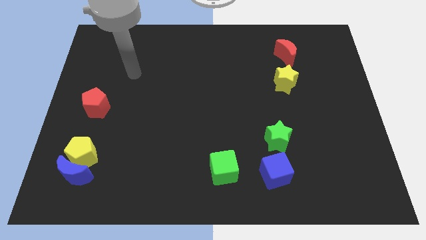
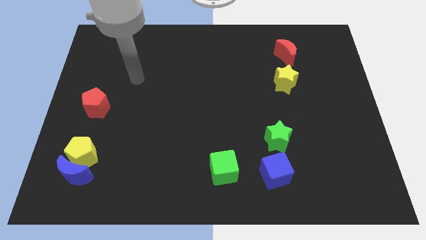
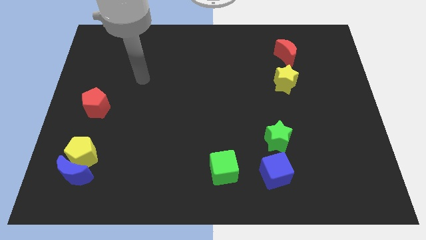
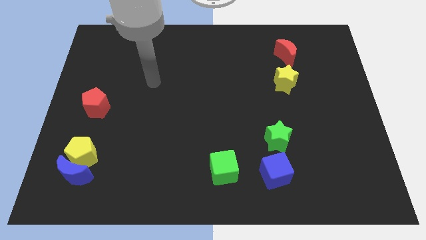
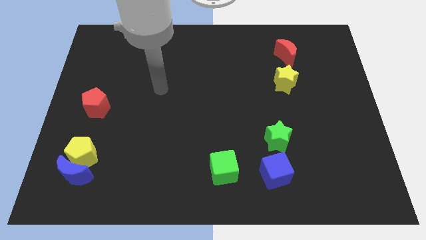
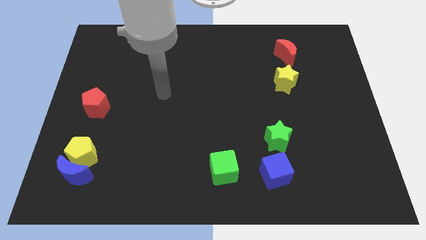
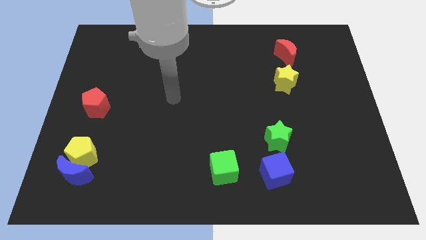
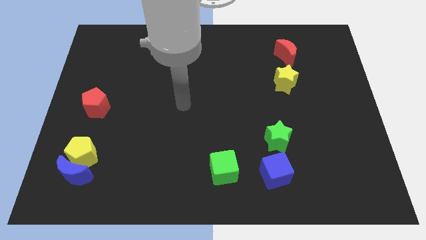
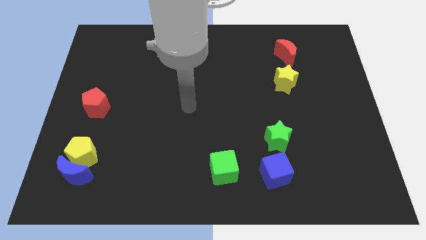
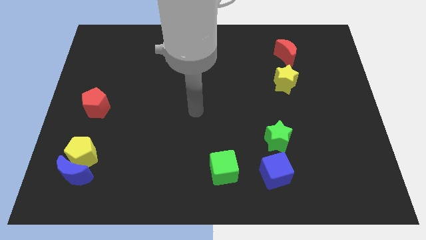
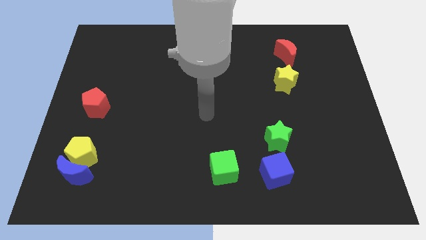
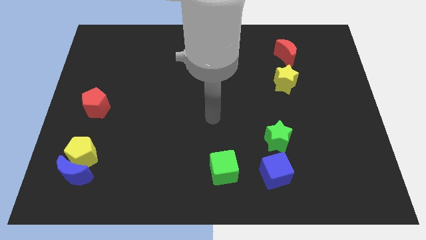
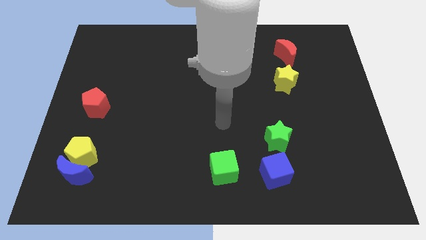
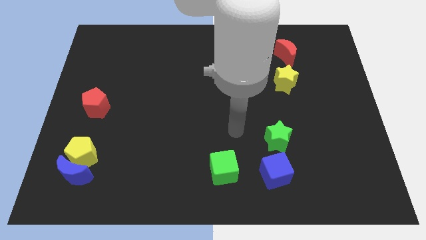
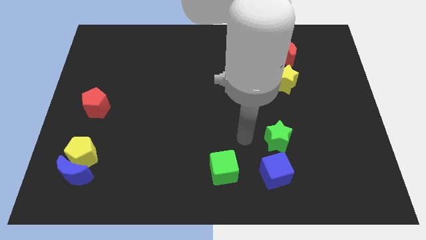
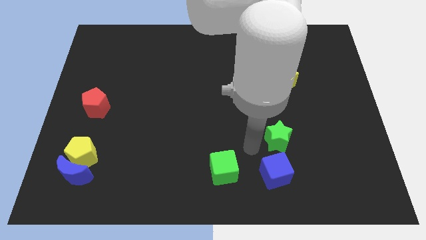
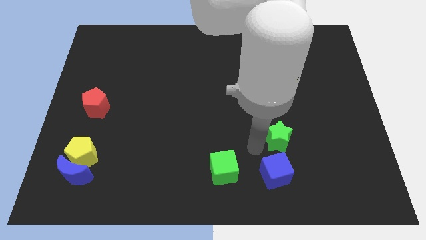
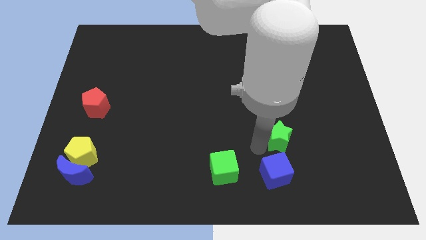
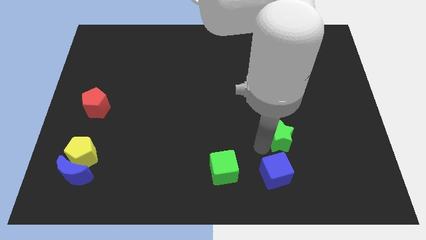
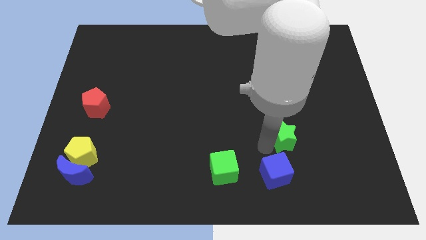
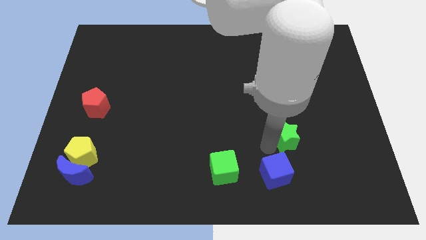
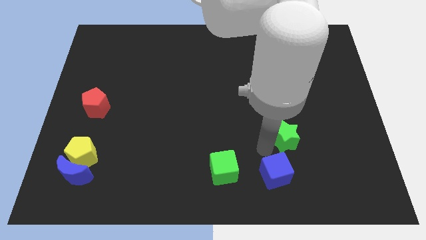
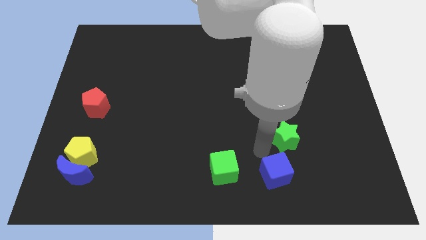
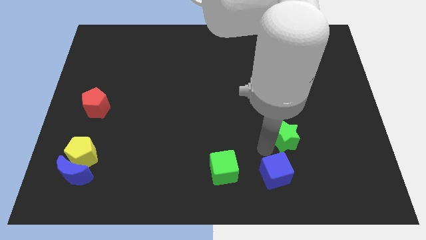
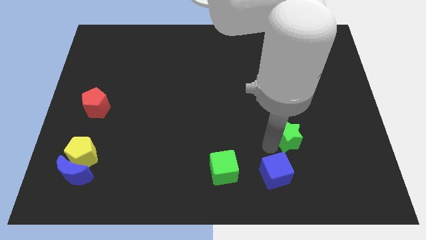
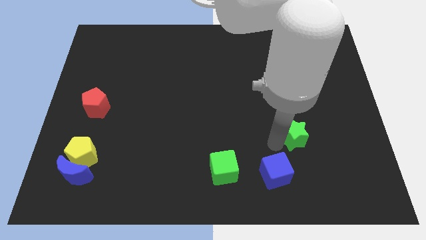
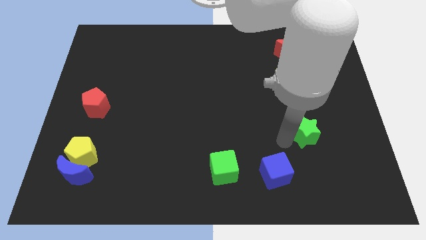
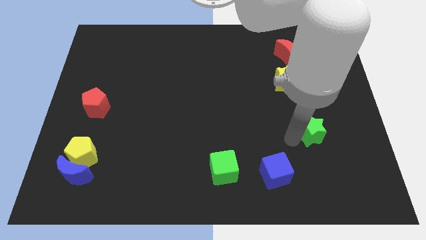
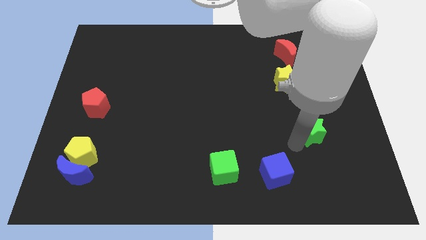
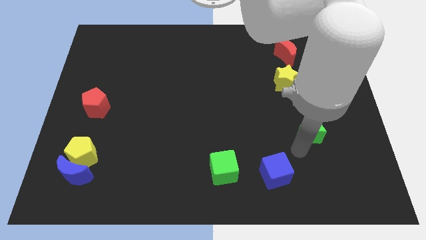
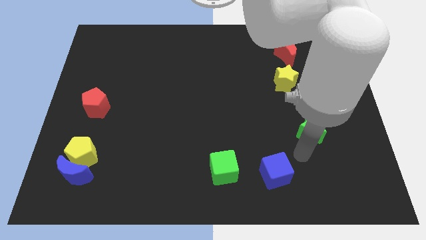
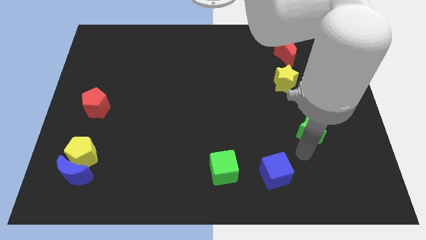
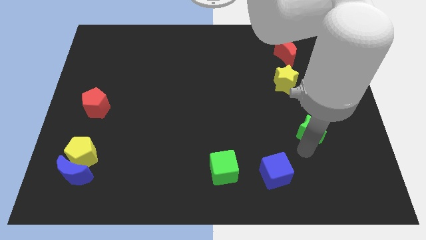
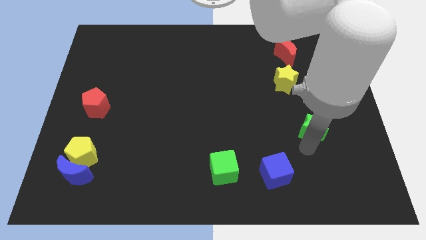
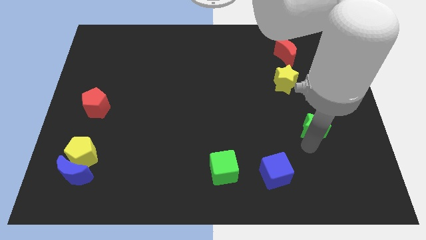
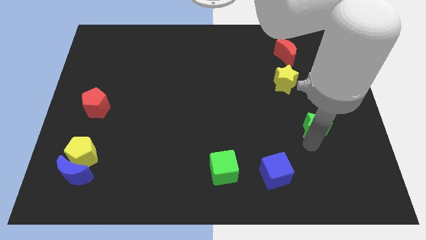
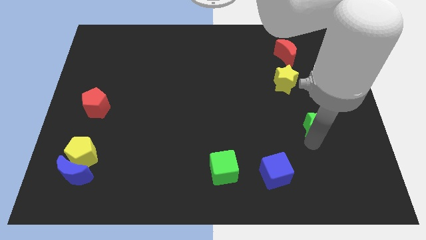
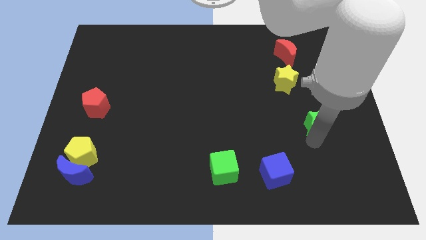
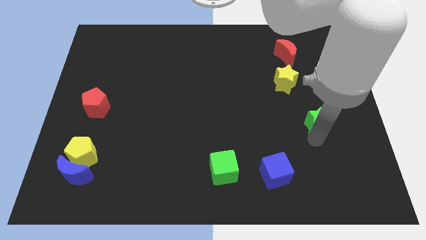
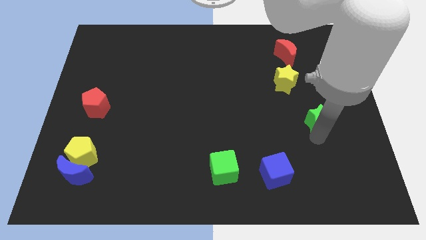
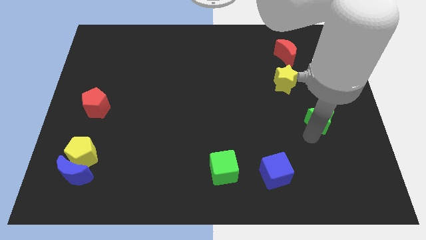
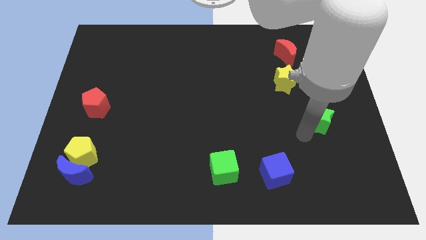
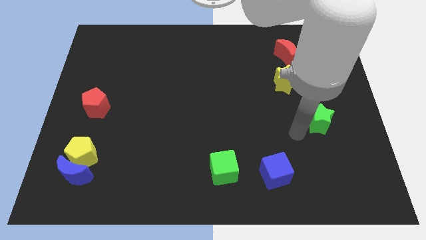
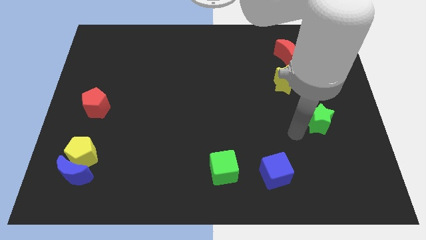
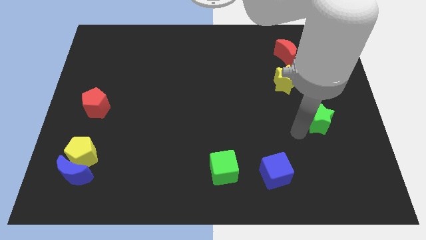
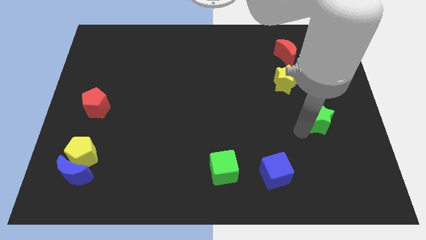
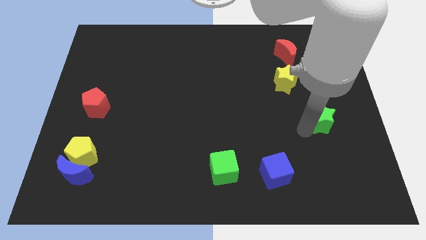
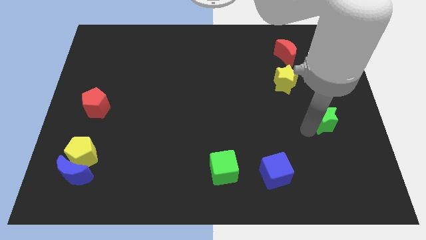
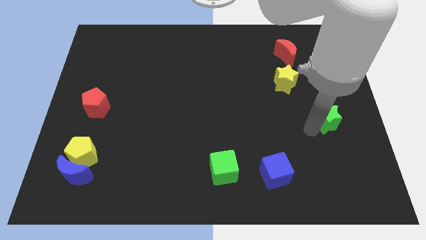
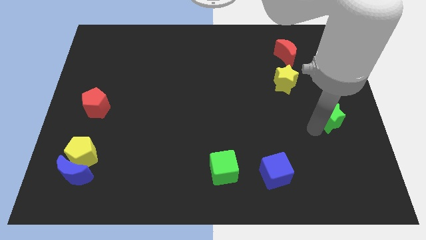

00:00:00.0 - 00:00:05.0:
move the green star to the right side of the board

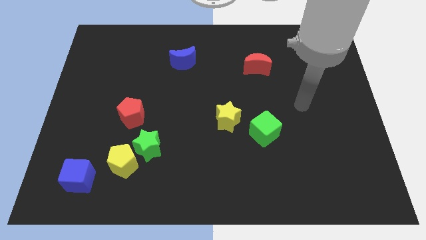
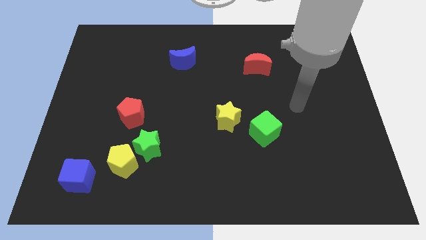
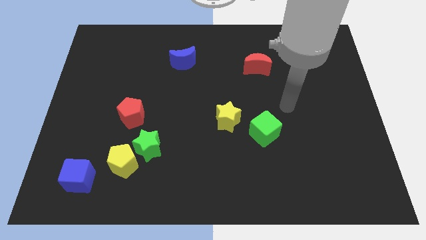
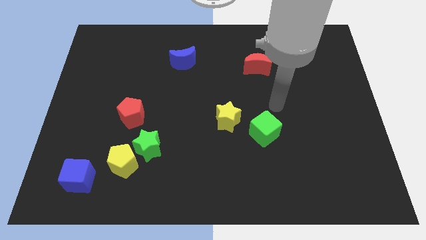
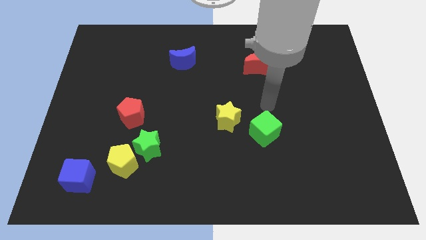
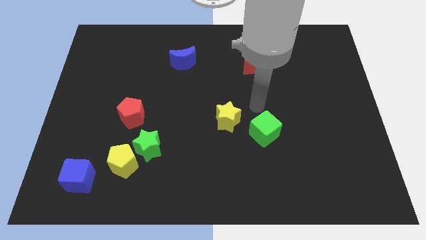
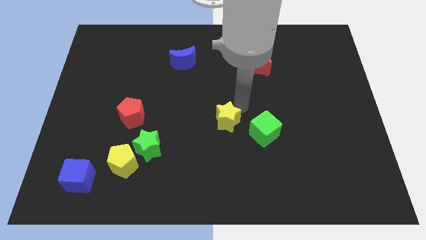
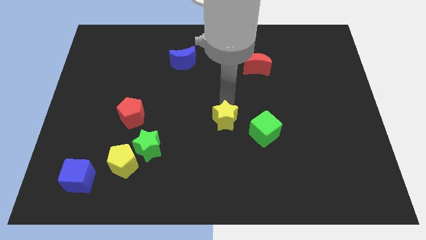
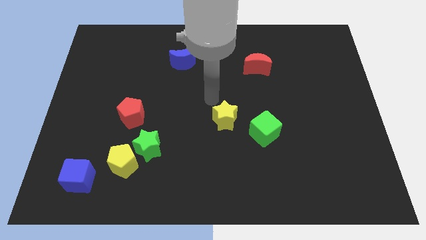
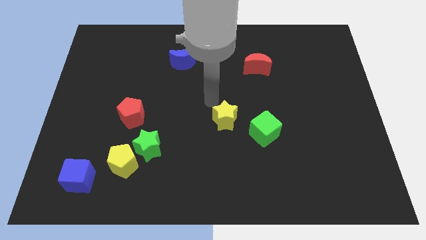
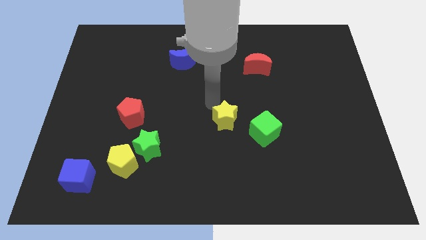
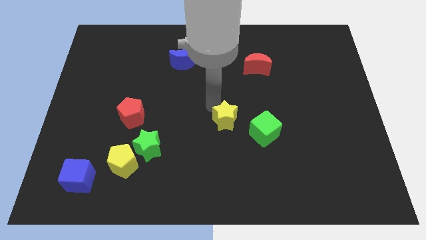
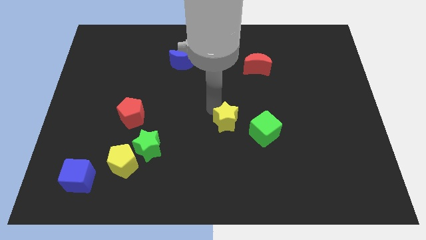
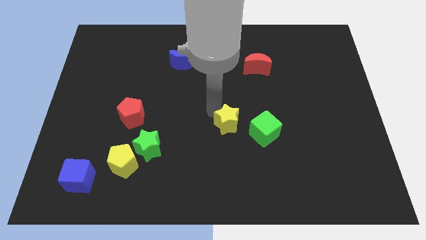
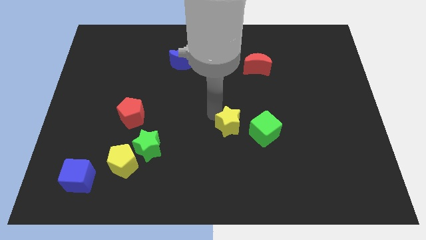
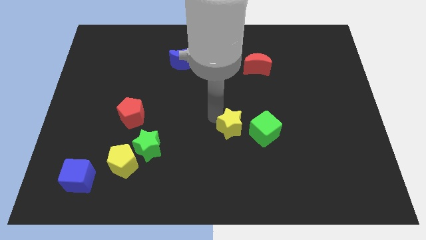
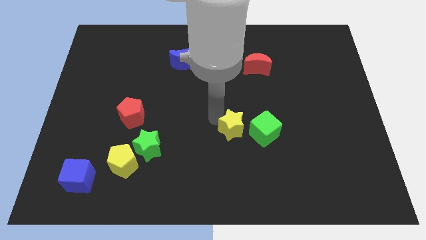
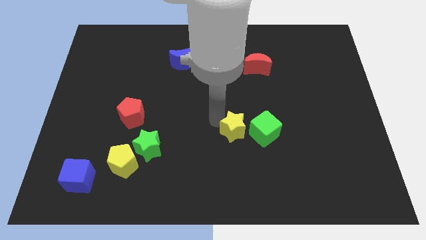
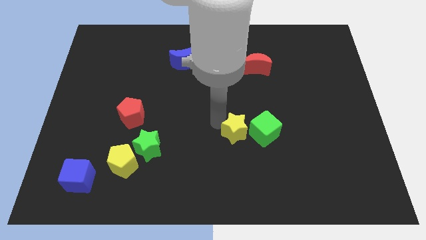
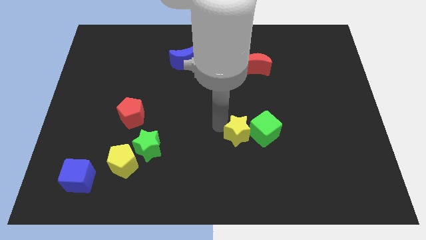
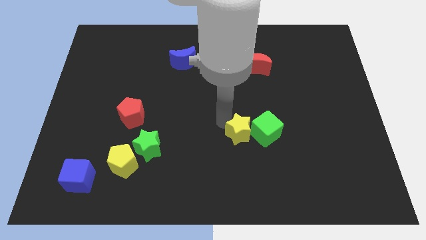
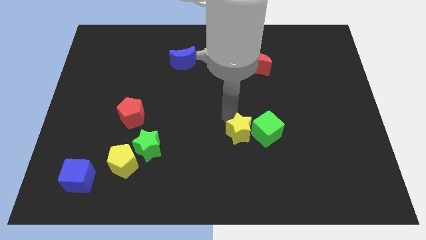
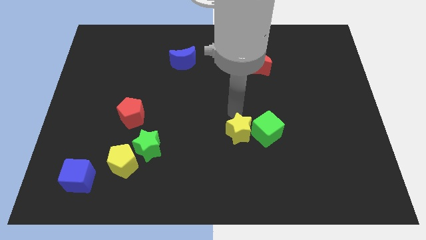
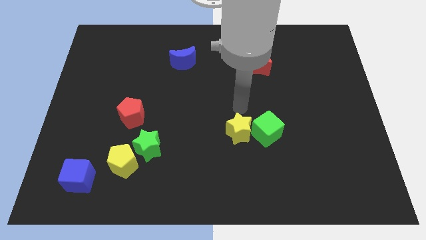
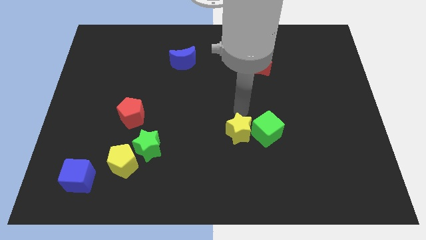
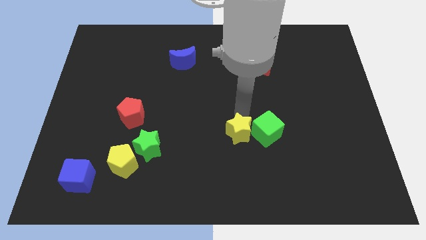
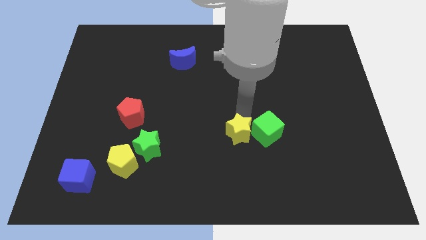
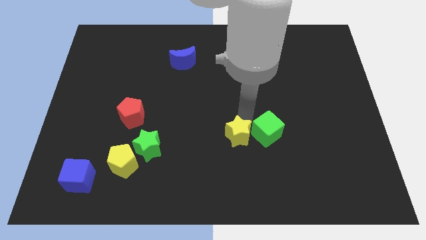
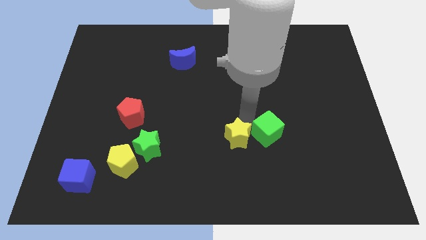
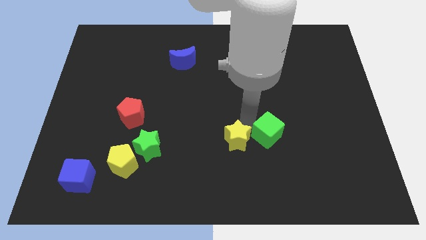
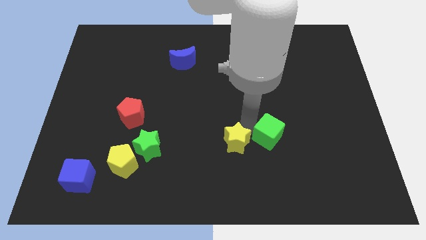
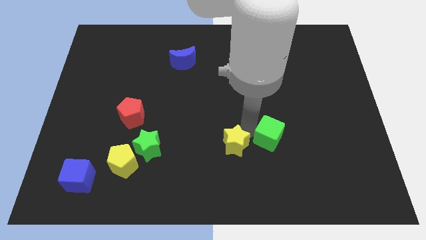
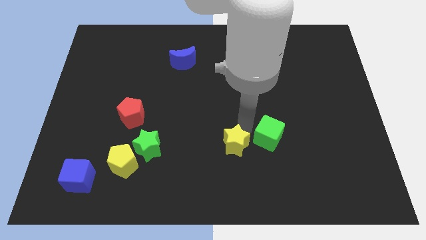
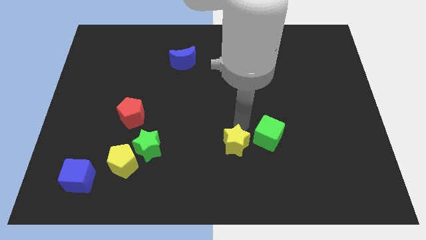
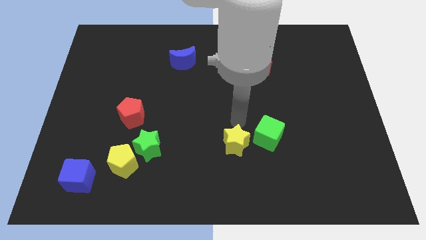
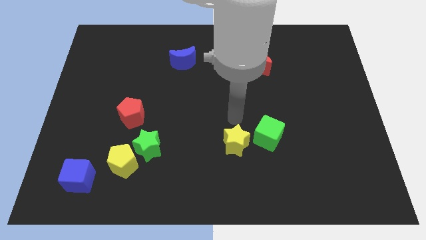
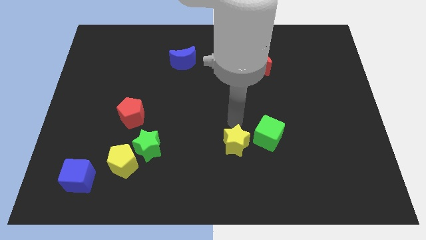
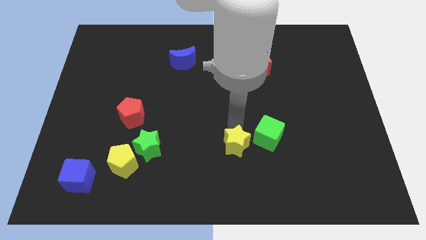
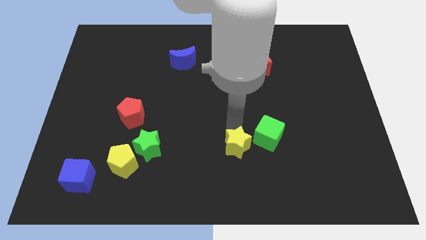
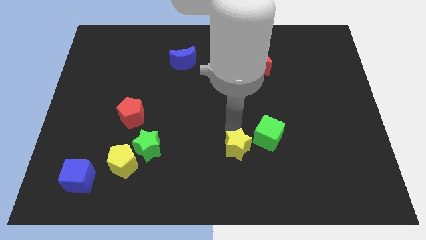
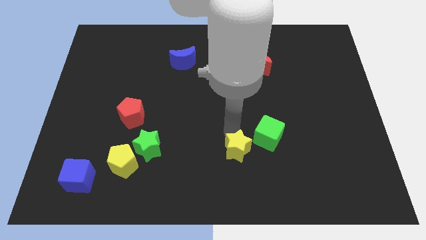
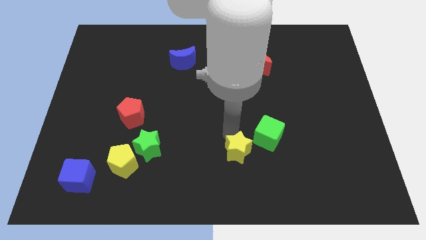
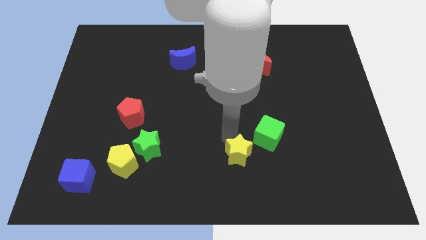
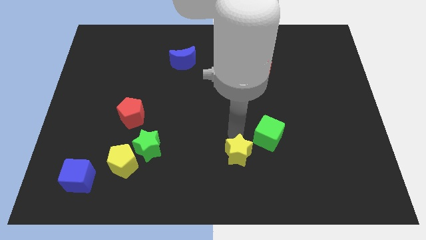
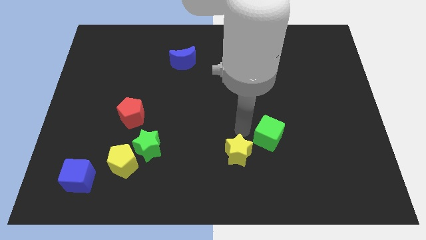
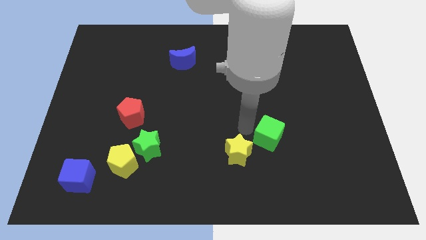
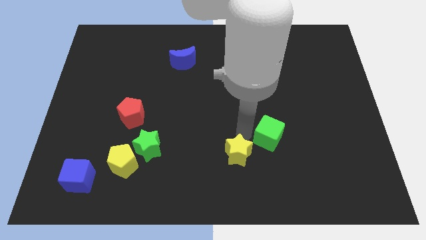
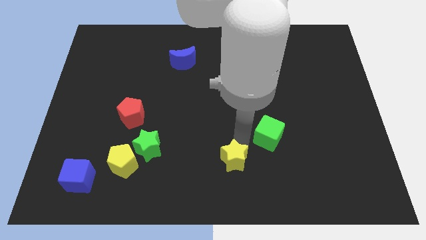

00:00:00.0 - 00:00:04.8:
put the yellow star to the bottom
